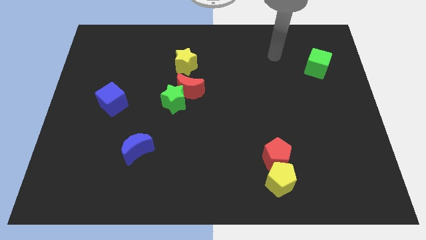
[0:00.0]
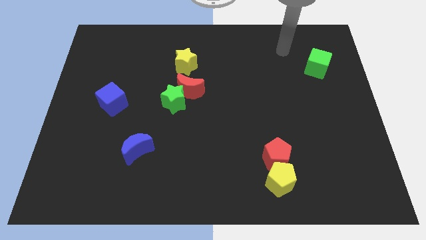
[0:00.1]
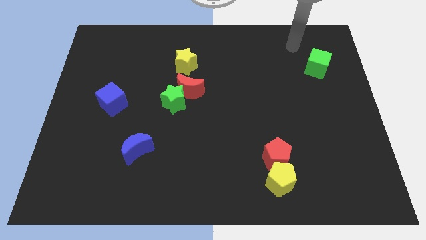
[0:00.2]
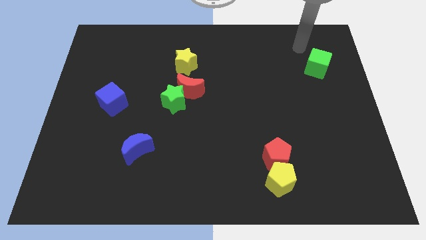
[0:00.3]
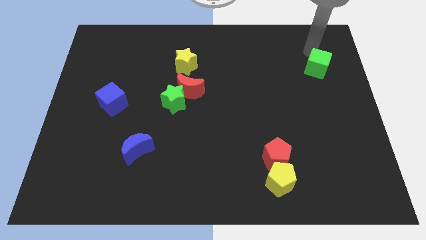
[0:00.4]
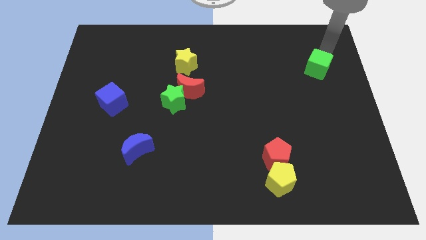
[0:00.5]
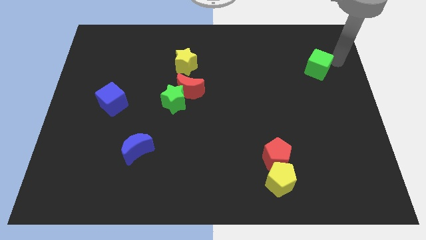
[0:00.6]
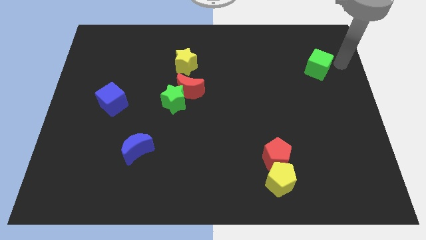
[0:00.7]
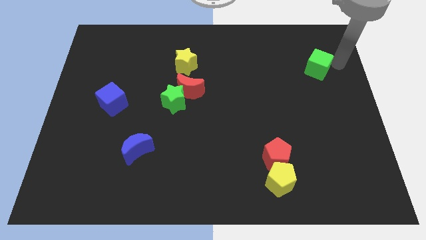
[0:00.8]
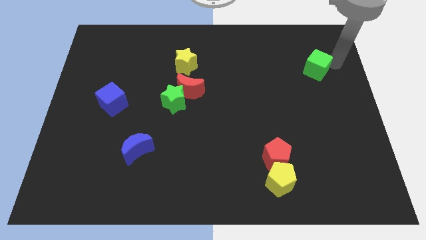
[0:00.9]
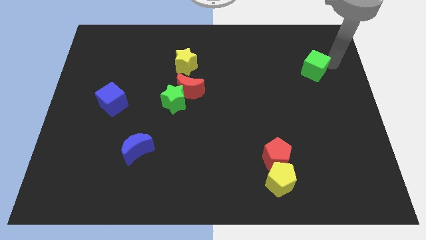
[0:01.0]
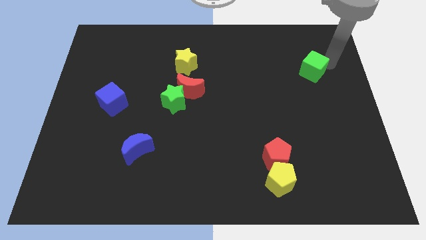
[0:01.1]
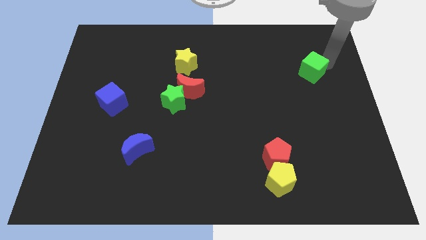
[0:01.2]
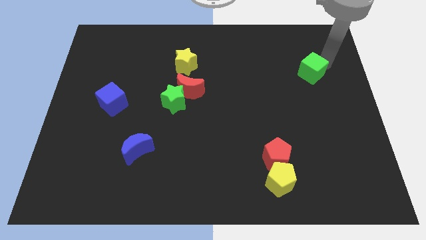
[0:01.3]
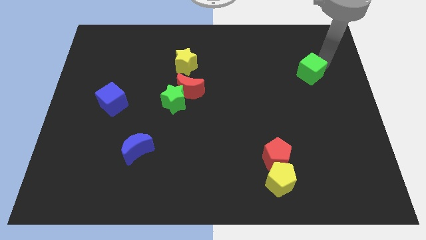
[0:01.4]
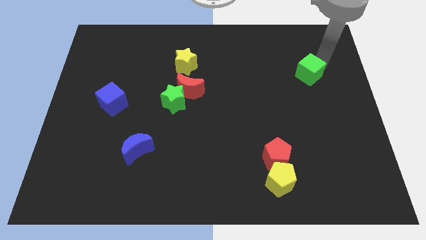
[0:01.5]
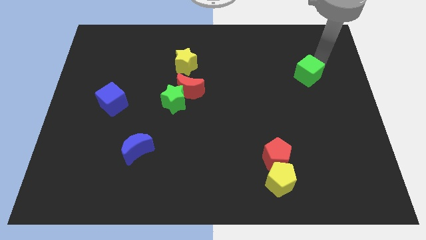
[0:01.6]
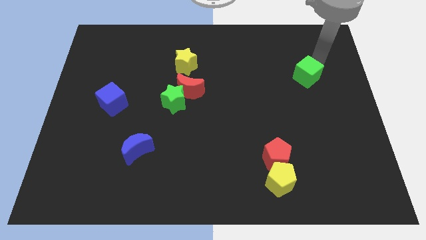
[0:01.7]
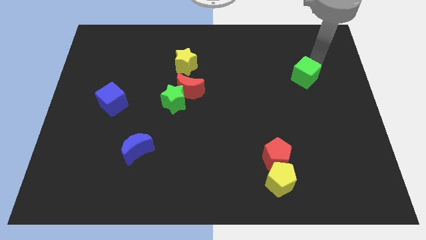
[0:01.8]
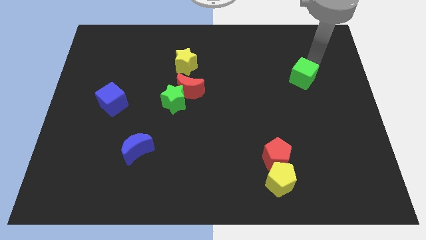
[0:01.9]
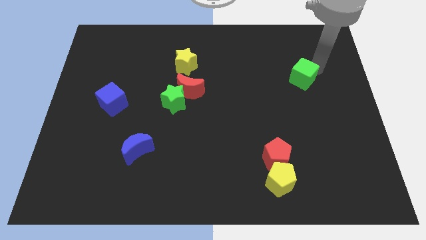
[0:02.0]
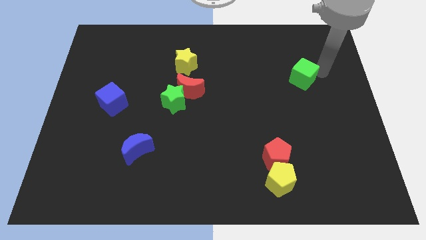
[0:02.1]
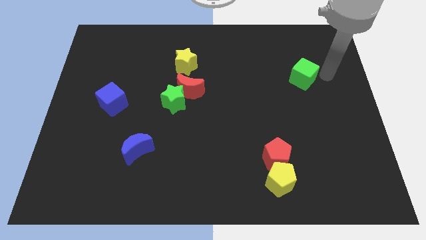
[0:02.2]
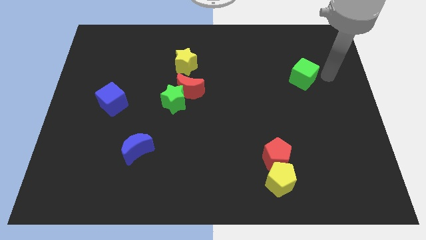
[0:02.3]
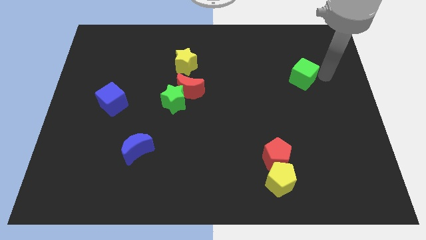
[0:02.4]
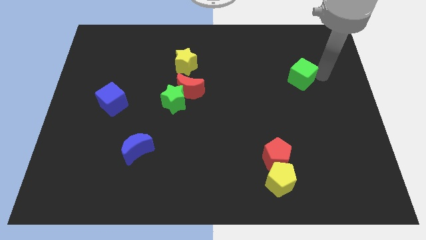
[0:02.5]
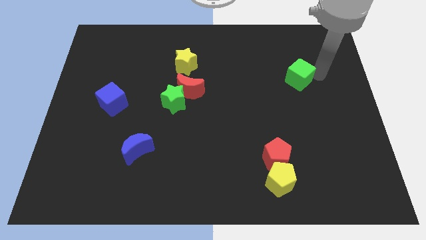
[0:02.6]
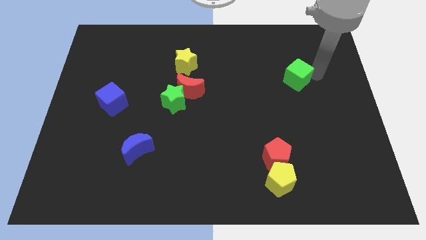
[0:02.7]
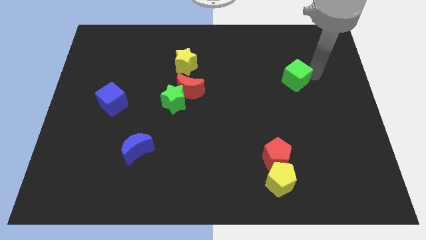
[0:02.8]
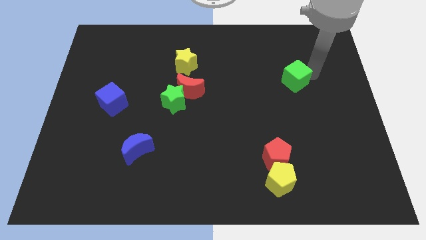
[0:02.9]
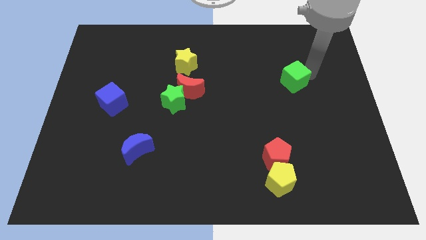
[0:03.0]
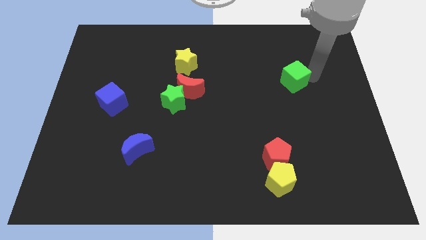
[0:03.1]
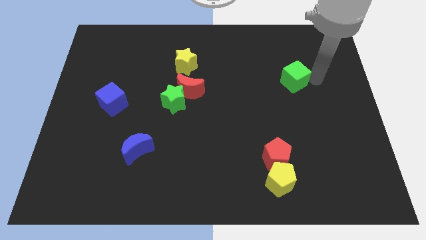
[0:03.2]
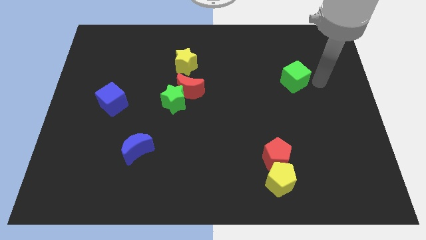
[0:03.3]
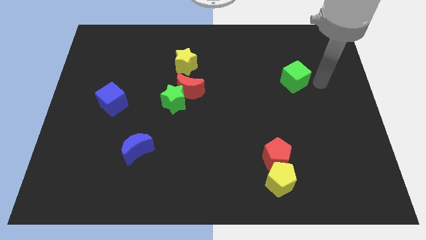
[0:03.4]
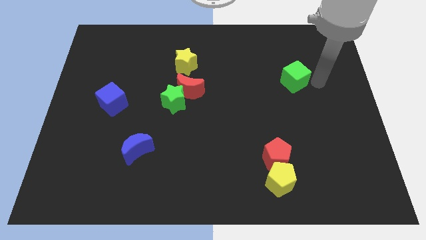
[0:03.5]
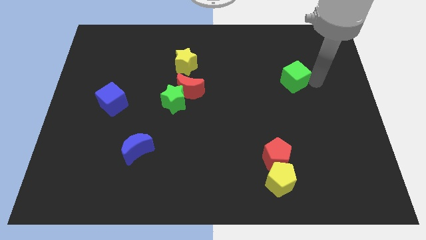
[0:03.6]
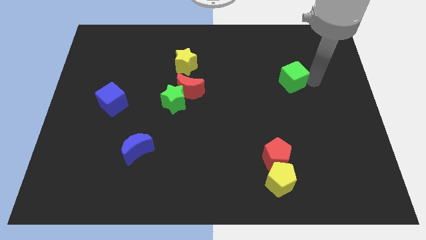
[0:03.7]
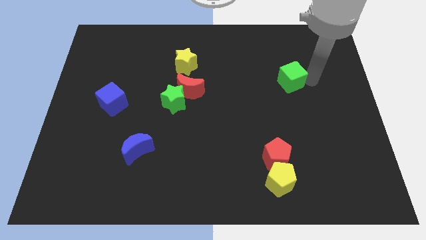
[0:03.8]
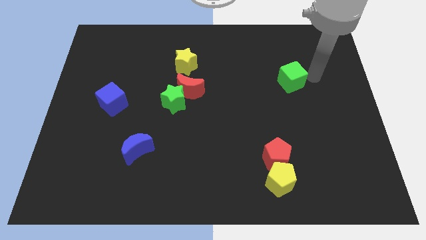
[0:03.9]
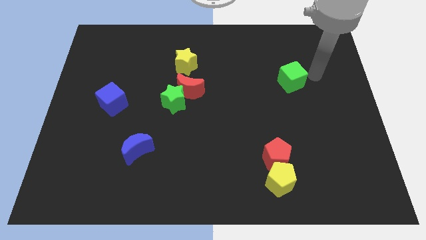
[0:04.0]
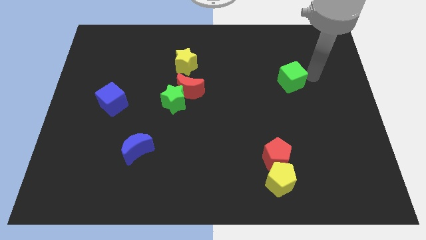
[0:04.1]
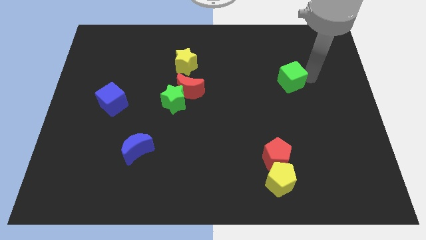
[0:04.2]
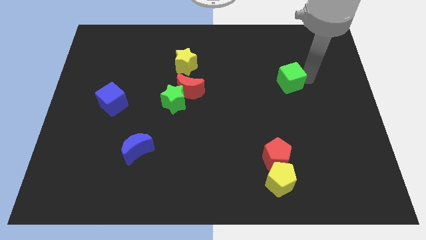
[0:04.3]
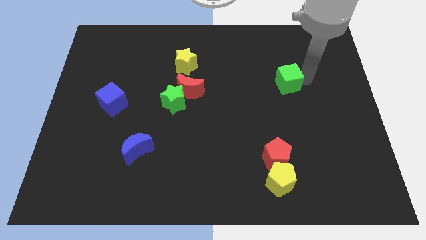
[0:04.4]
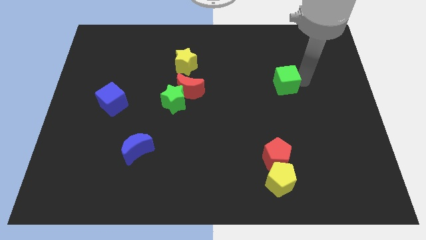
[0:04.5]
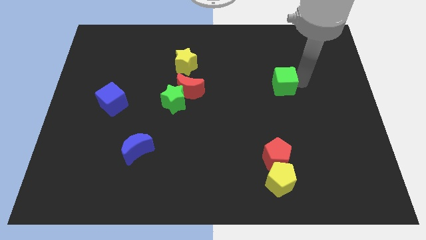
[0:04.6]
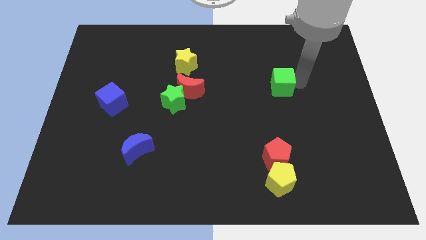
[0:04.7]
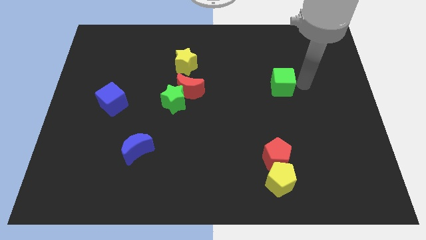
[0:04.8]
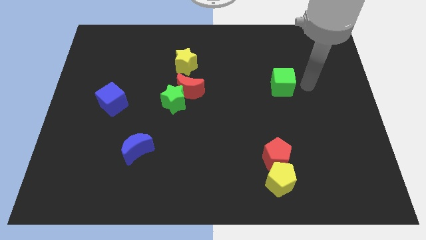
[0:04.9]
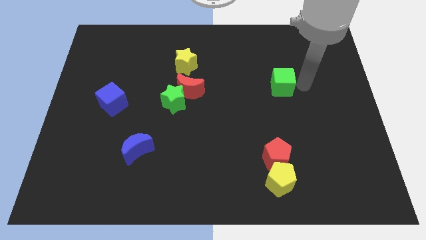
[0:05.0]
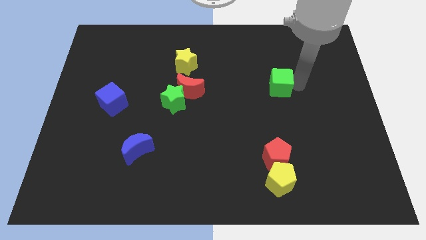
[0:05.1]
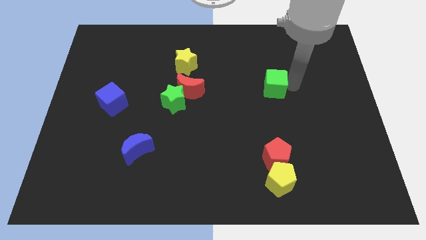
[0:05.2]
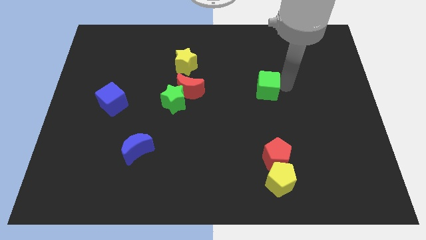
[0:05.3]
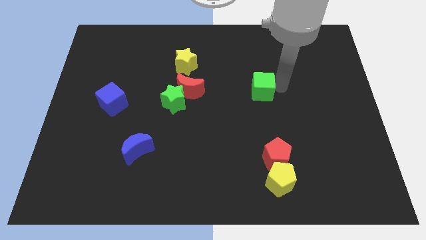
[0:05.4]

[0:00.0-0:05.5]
push the green cube to the middle

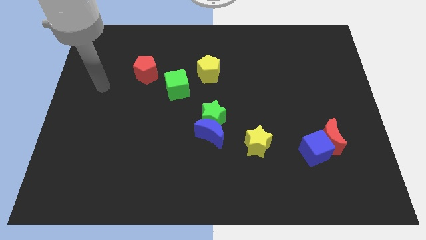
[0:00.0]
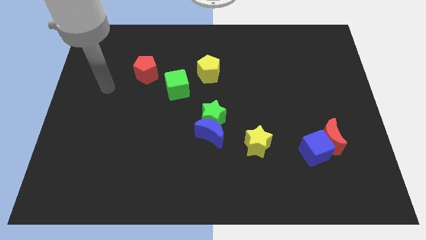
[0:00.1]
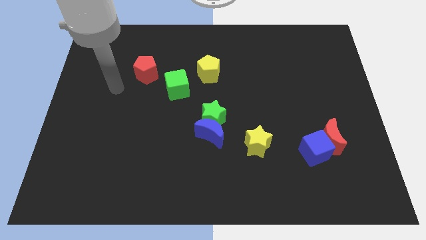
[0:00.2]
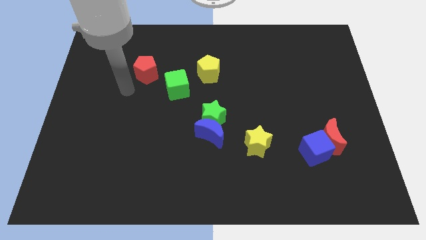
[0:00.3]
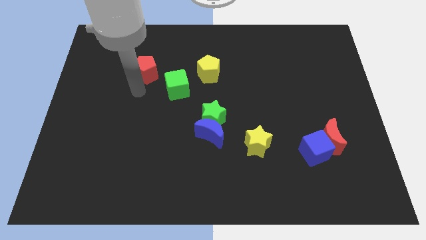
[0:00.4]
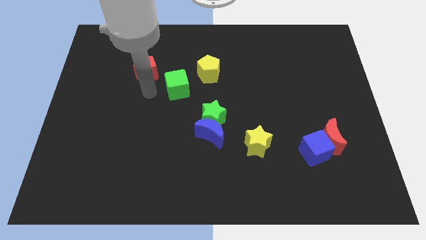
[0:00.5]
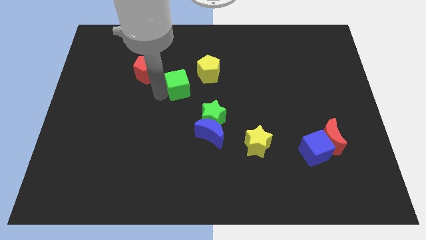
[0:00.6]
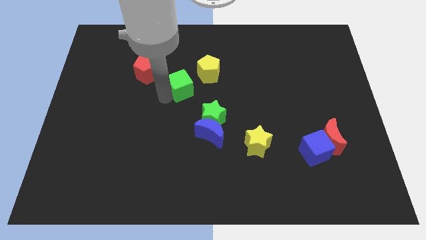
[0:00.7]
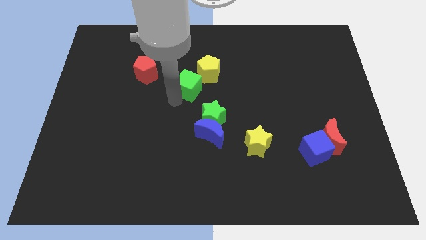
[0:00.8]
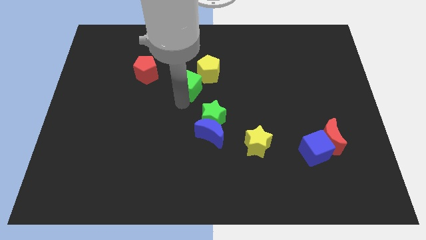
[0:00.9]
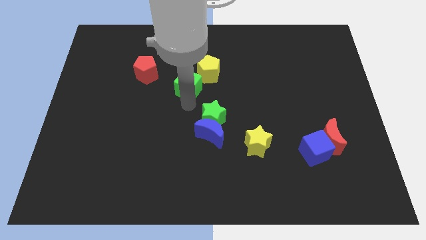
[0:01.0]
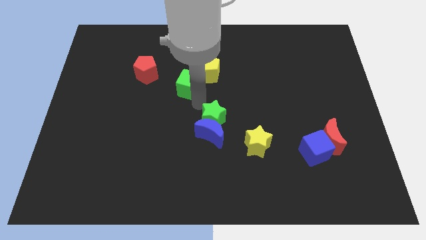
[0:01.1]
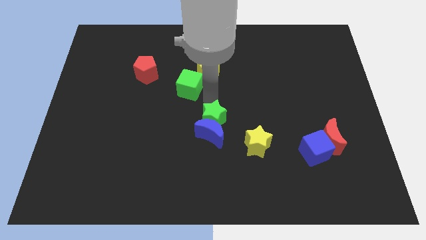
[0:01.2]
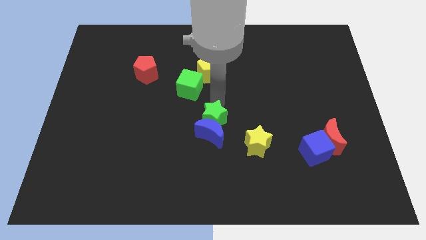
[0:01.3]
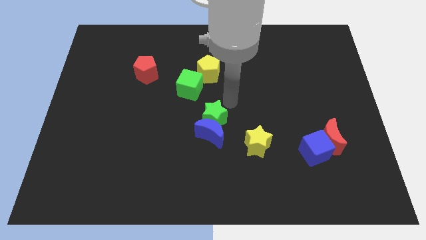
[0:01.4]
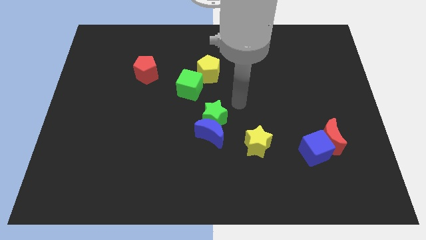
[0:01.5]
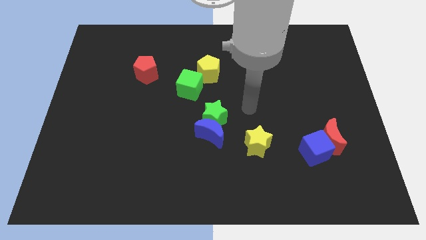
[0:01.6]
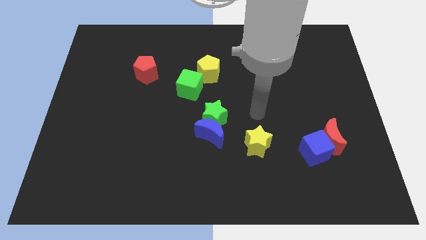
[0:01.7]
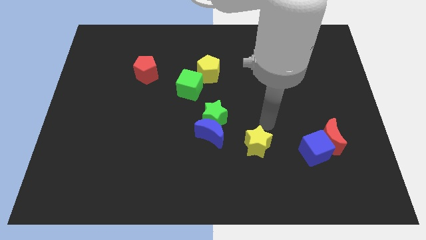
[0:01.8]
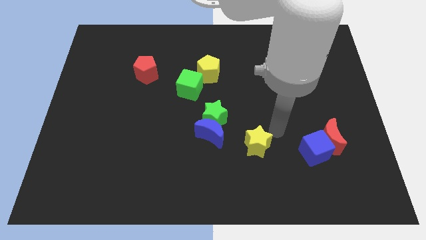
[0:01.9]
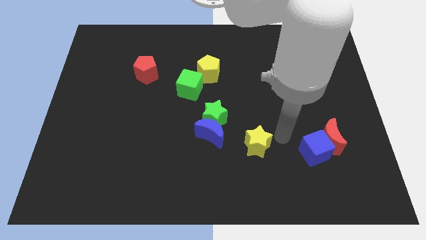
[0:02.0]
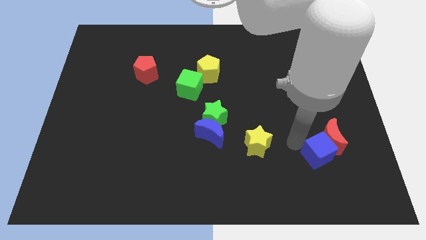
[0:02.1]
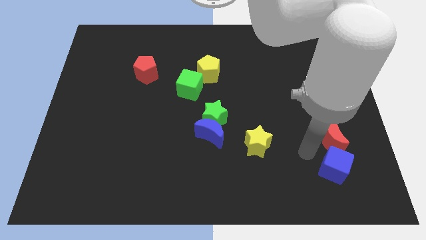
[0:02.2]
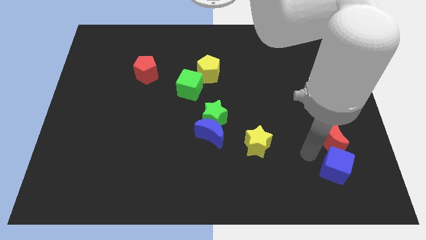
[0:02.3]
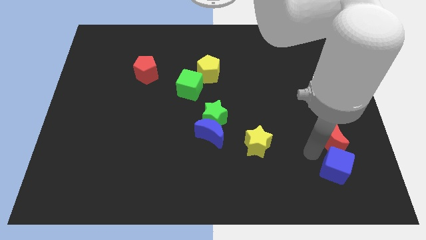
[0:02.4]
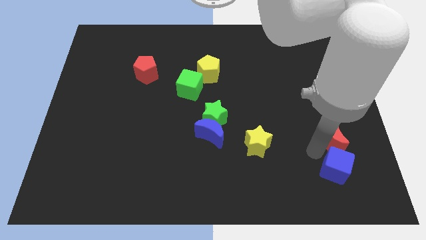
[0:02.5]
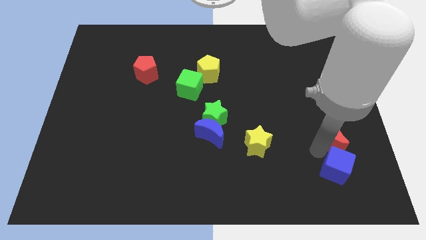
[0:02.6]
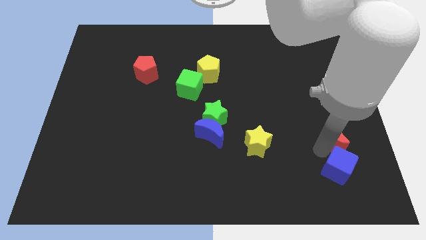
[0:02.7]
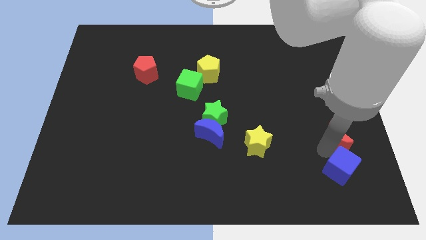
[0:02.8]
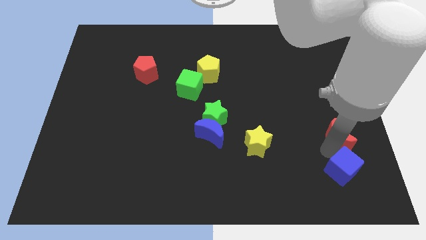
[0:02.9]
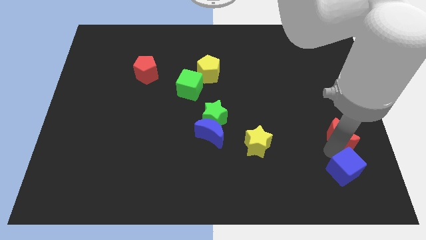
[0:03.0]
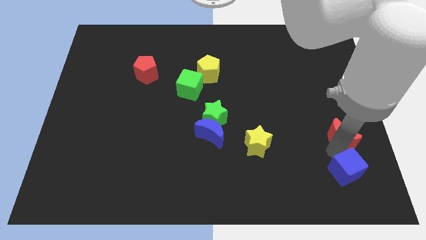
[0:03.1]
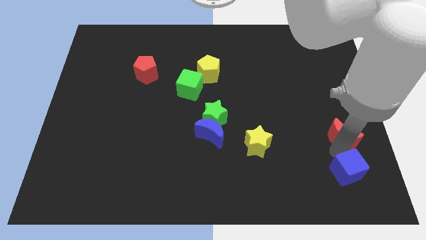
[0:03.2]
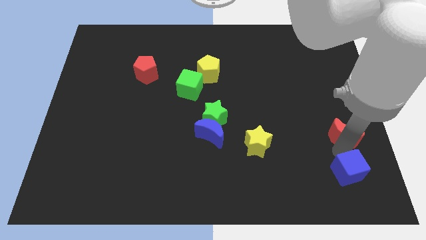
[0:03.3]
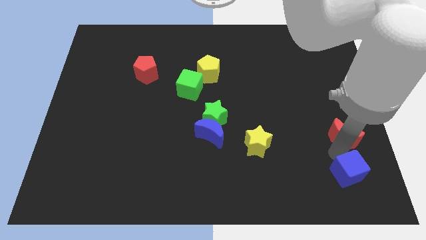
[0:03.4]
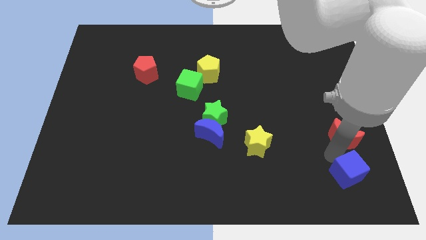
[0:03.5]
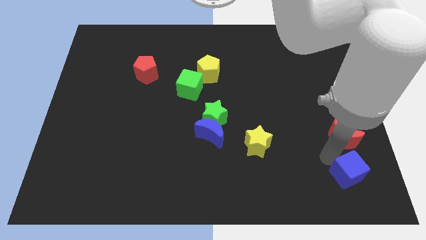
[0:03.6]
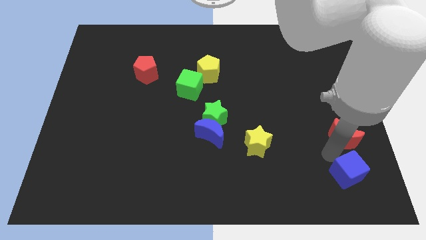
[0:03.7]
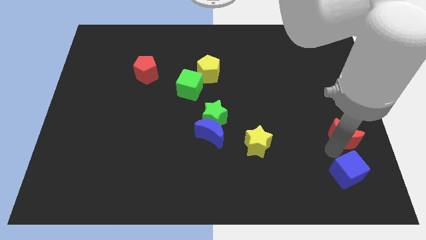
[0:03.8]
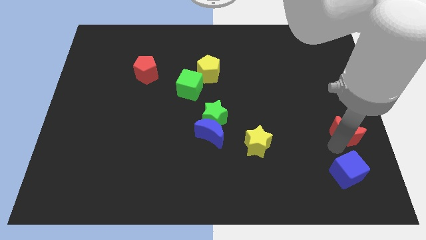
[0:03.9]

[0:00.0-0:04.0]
move the red moon to the center right
